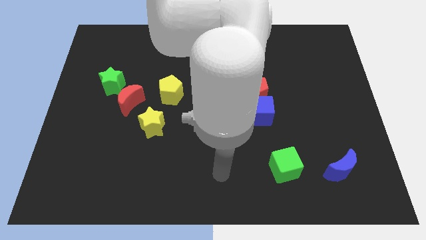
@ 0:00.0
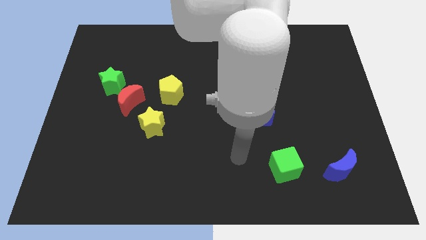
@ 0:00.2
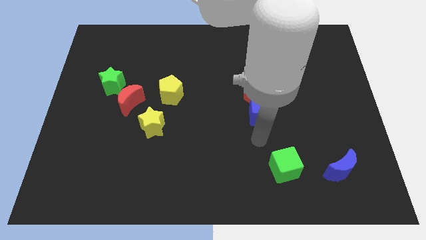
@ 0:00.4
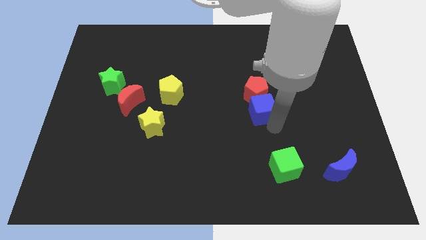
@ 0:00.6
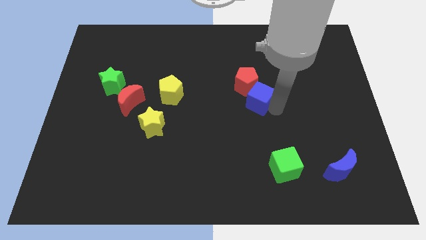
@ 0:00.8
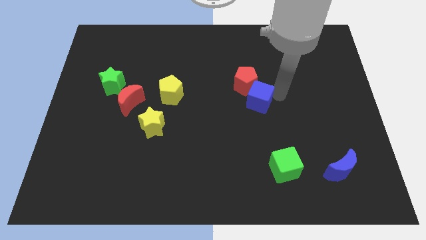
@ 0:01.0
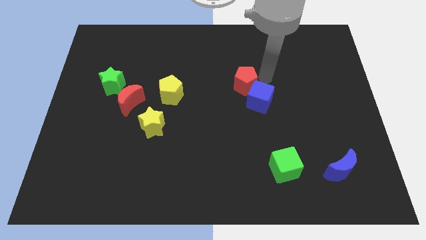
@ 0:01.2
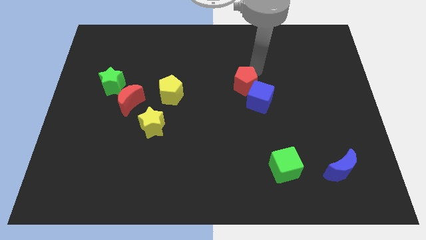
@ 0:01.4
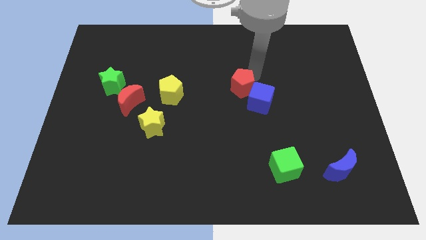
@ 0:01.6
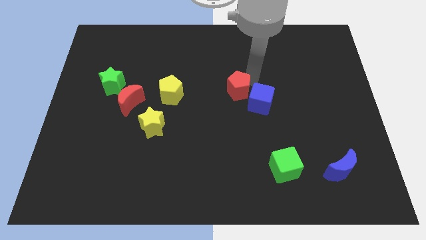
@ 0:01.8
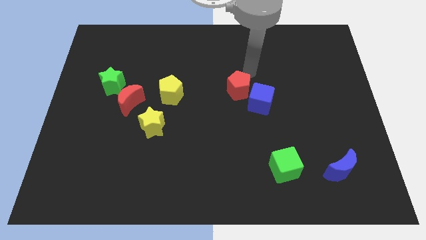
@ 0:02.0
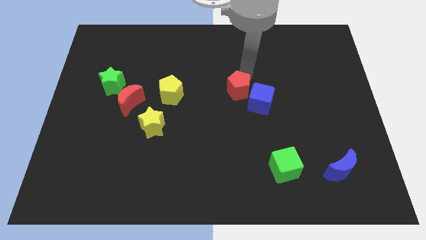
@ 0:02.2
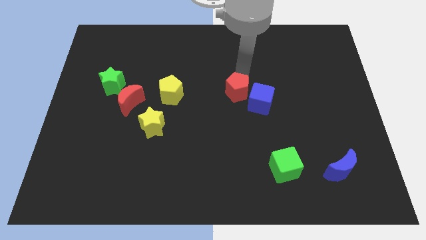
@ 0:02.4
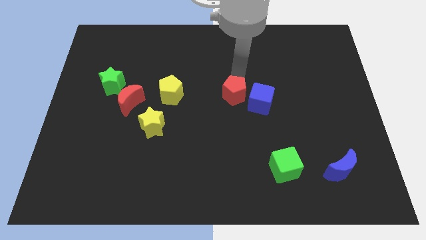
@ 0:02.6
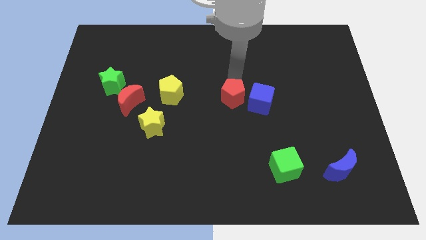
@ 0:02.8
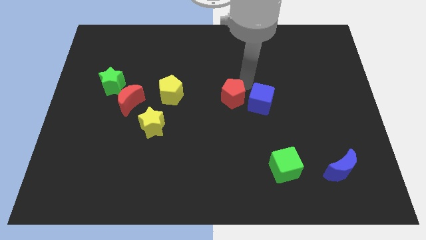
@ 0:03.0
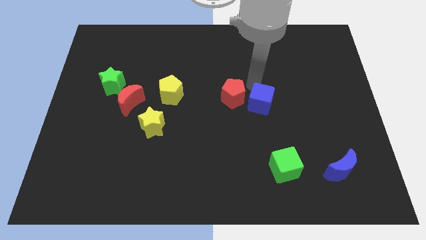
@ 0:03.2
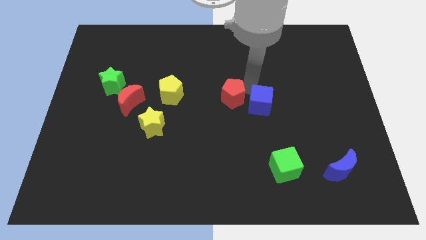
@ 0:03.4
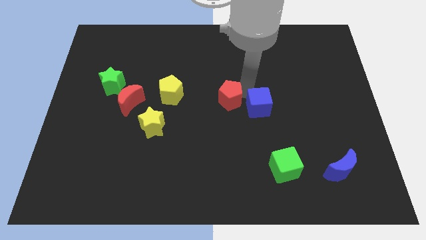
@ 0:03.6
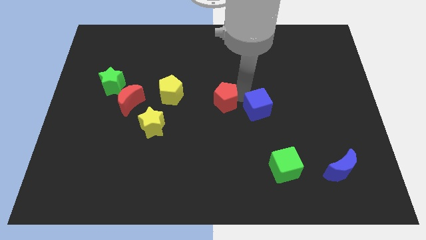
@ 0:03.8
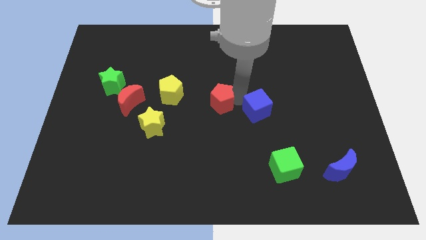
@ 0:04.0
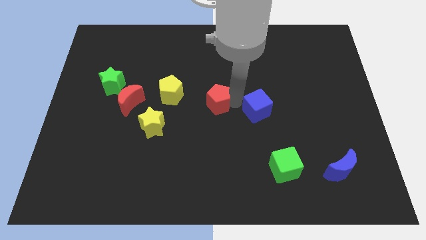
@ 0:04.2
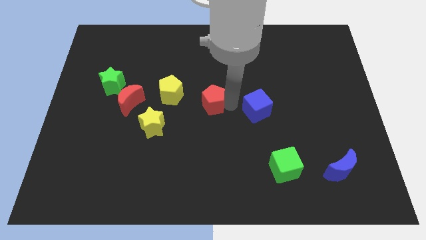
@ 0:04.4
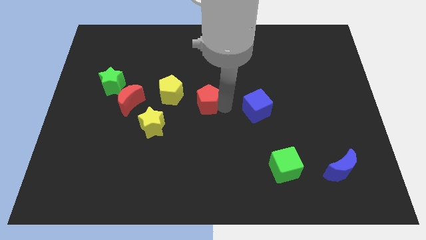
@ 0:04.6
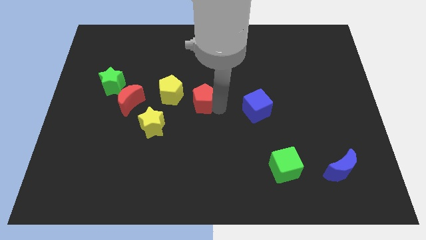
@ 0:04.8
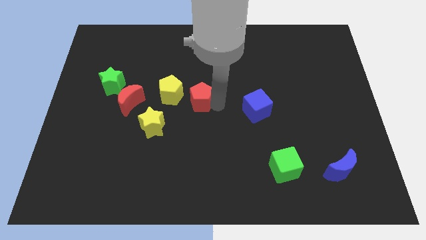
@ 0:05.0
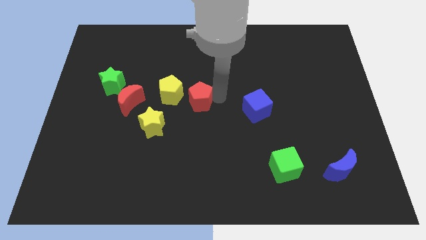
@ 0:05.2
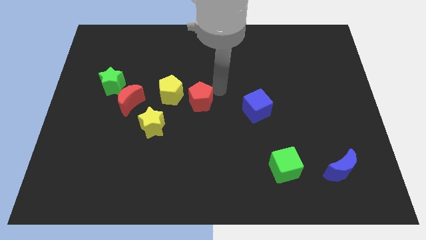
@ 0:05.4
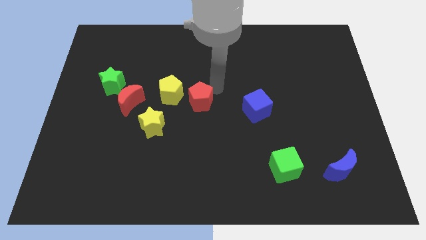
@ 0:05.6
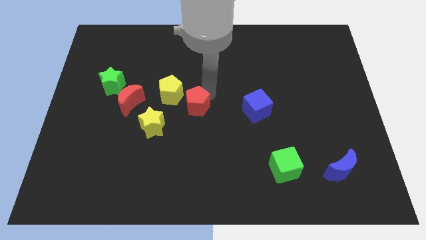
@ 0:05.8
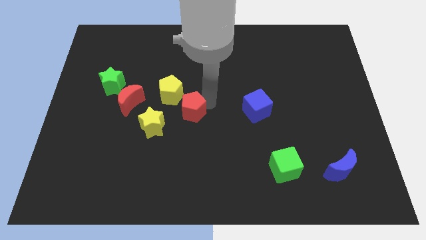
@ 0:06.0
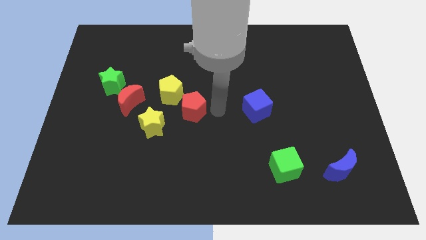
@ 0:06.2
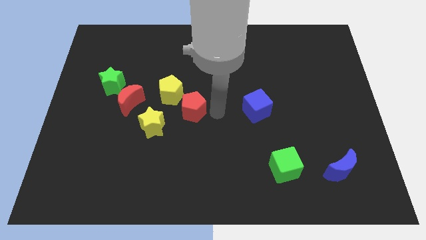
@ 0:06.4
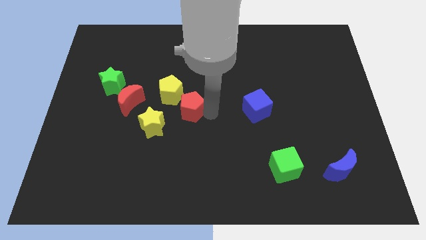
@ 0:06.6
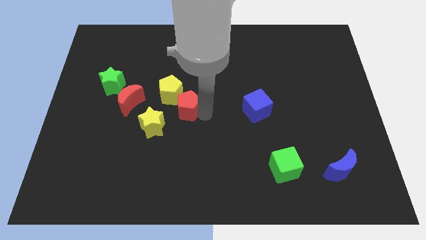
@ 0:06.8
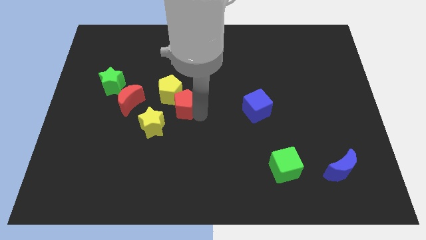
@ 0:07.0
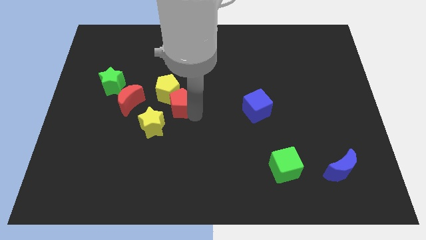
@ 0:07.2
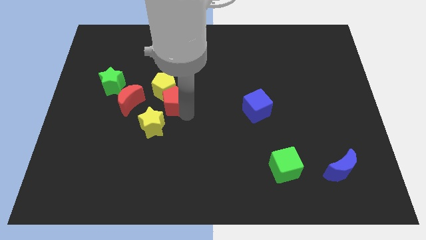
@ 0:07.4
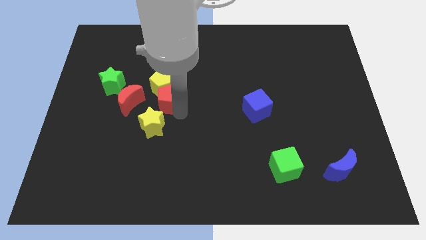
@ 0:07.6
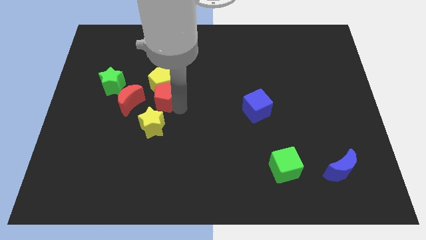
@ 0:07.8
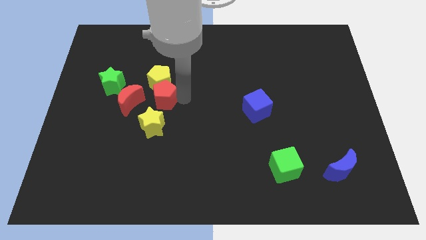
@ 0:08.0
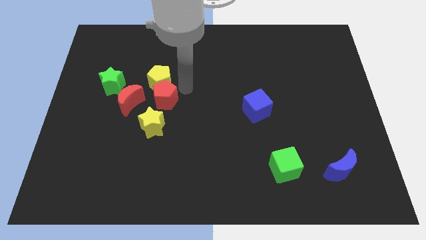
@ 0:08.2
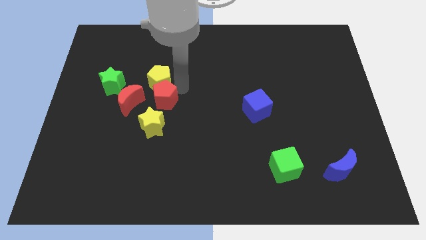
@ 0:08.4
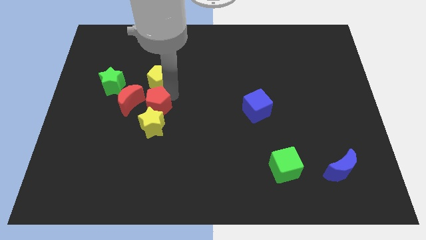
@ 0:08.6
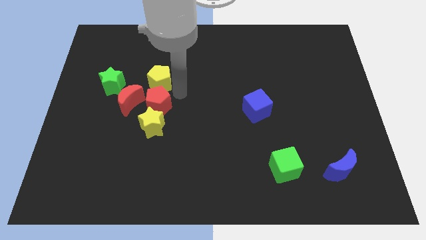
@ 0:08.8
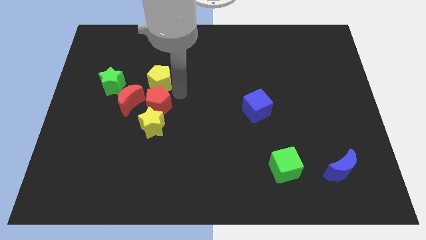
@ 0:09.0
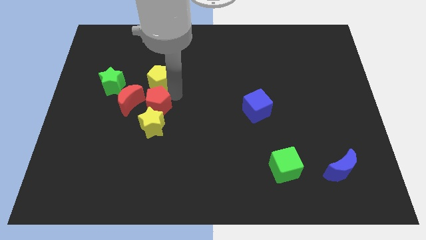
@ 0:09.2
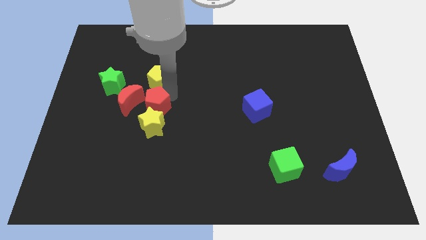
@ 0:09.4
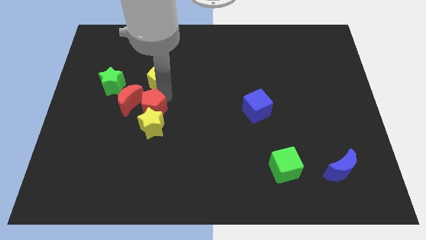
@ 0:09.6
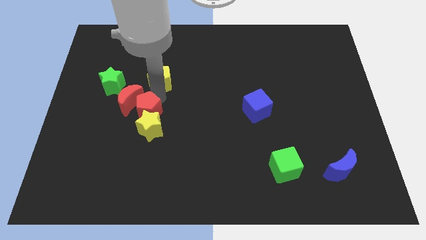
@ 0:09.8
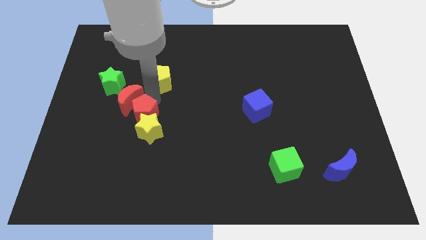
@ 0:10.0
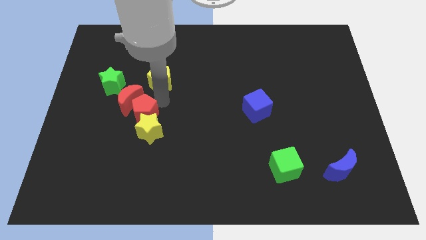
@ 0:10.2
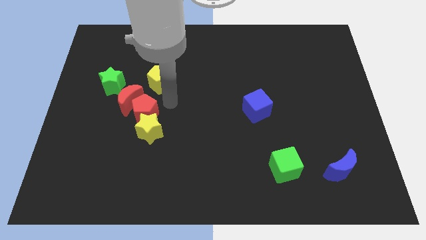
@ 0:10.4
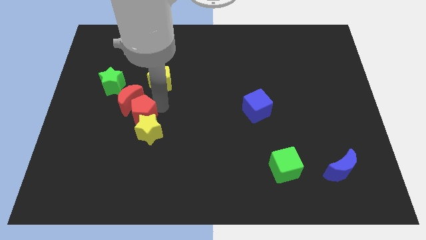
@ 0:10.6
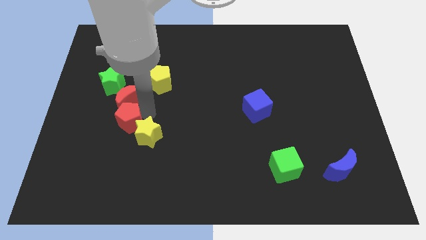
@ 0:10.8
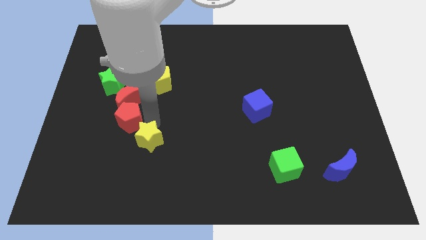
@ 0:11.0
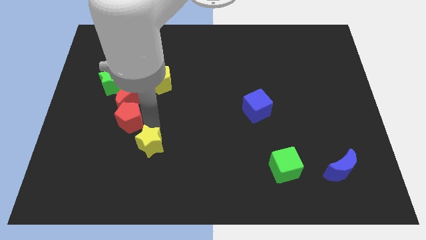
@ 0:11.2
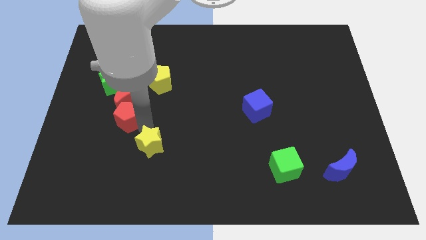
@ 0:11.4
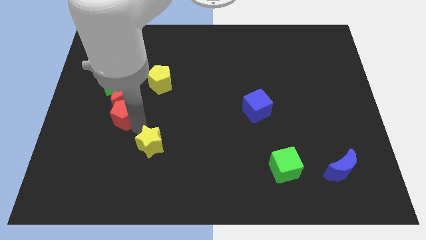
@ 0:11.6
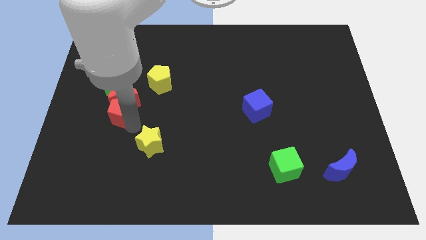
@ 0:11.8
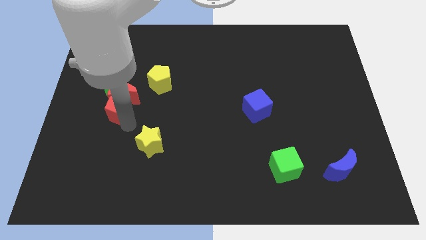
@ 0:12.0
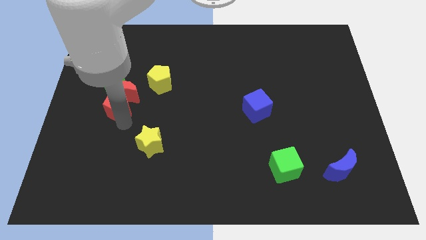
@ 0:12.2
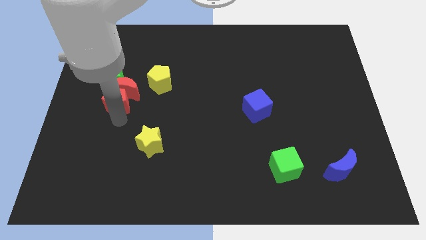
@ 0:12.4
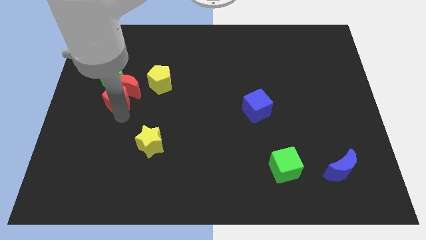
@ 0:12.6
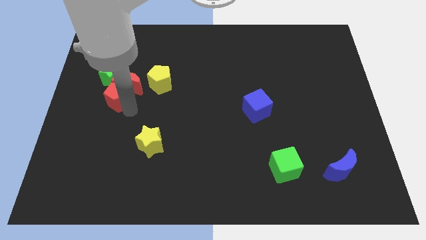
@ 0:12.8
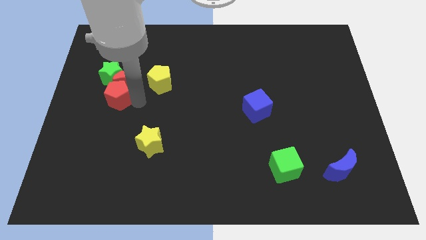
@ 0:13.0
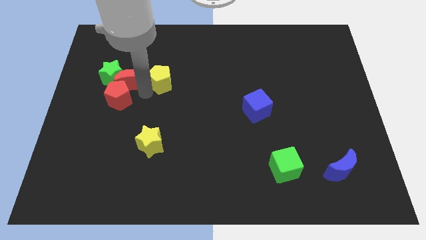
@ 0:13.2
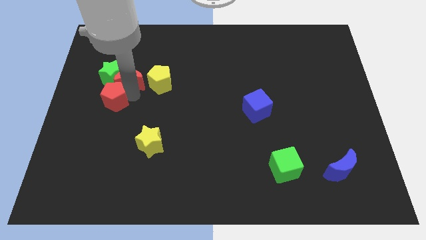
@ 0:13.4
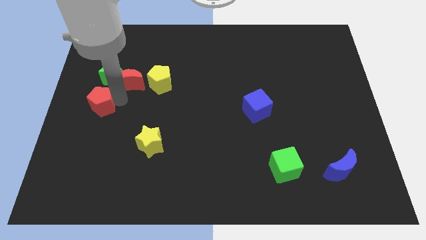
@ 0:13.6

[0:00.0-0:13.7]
move the red pentagon to the center left

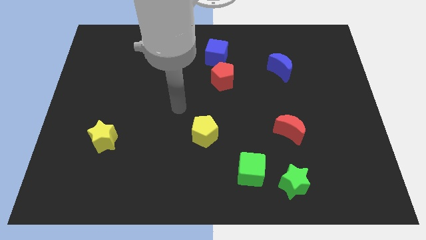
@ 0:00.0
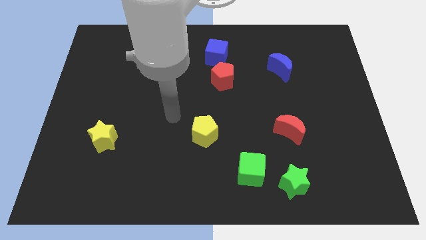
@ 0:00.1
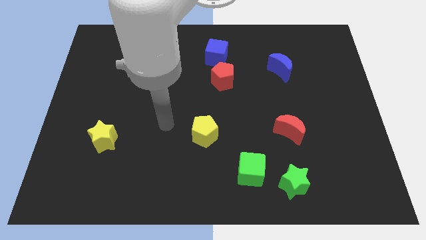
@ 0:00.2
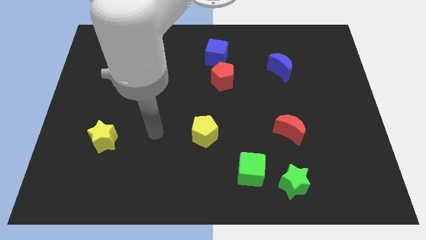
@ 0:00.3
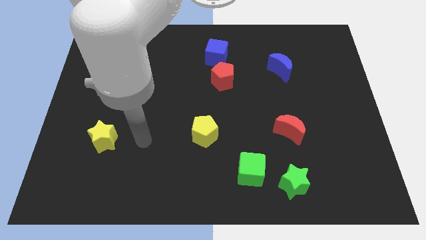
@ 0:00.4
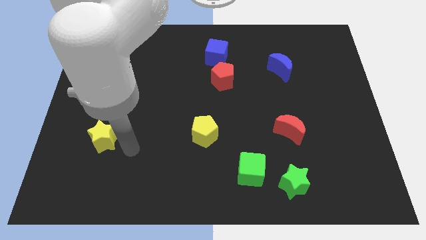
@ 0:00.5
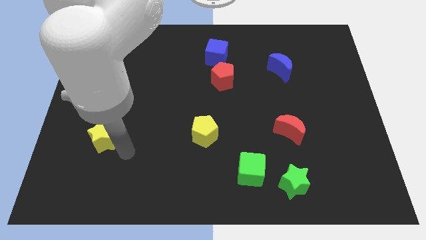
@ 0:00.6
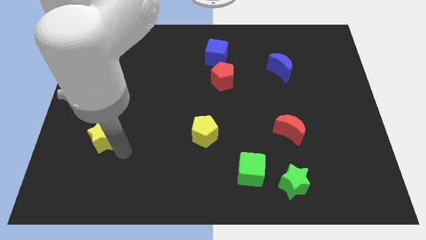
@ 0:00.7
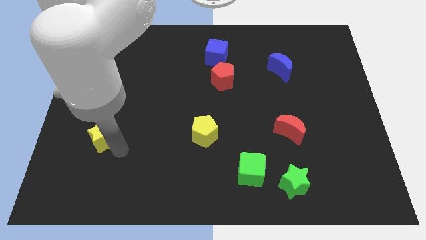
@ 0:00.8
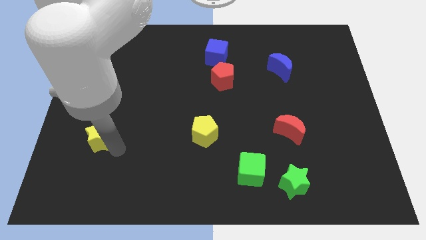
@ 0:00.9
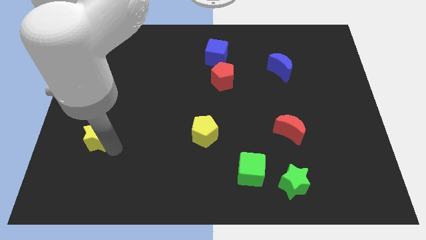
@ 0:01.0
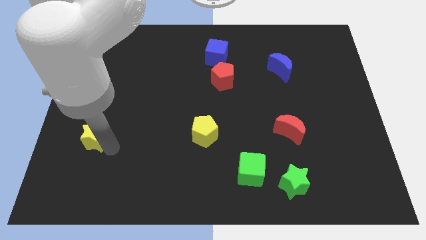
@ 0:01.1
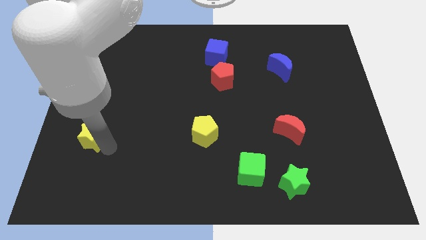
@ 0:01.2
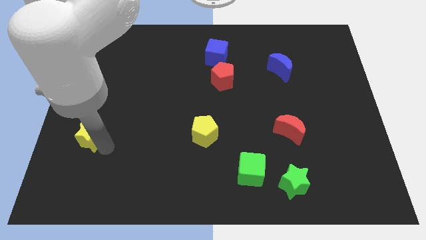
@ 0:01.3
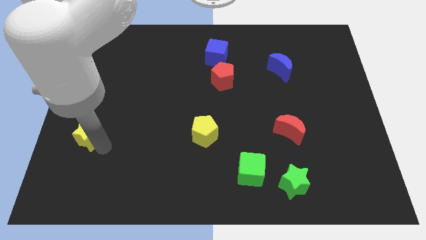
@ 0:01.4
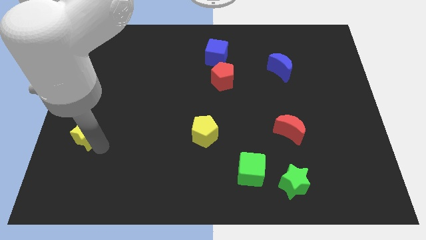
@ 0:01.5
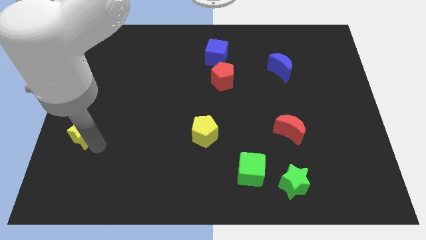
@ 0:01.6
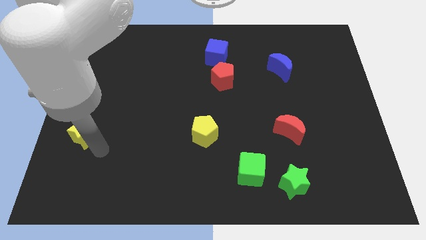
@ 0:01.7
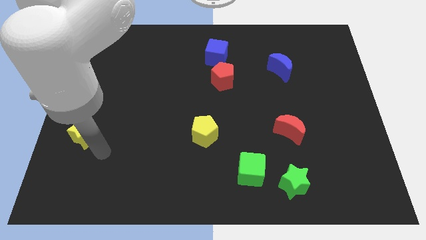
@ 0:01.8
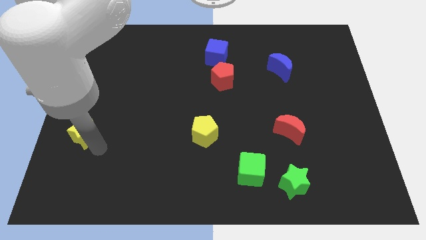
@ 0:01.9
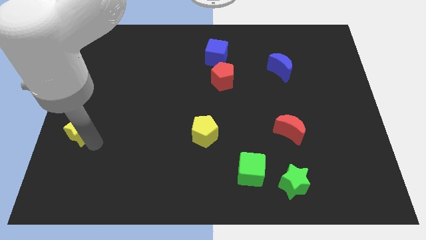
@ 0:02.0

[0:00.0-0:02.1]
slide the yellow star to the center left
